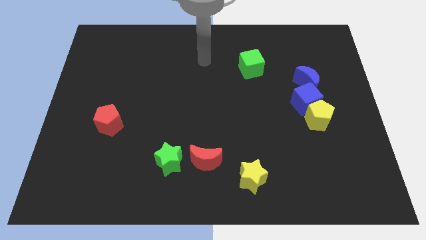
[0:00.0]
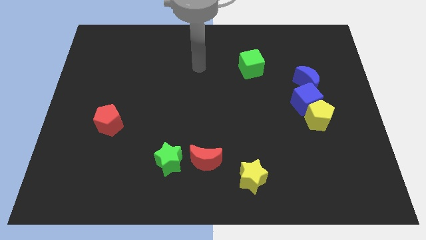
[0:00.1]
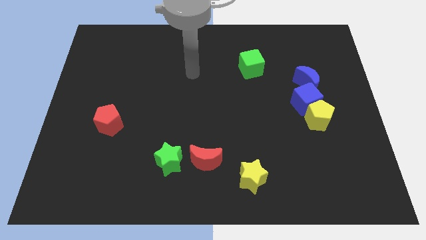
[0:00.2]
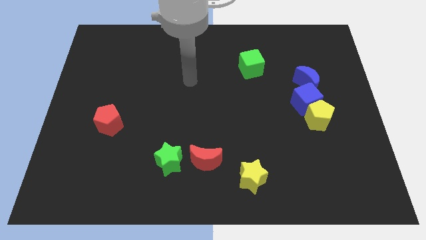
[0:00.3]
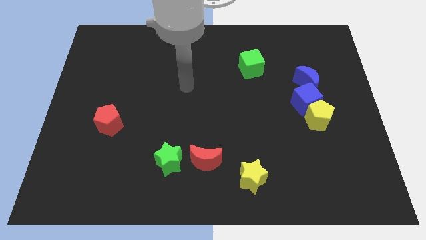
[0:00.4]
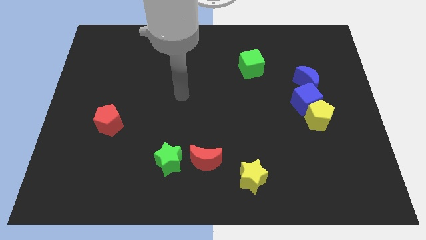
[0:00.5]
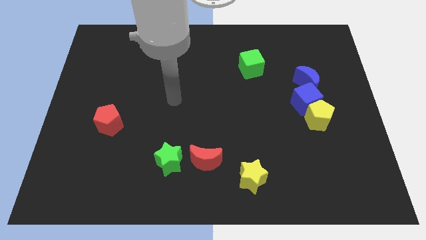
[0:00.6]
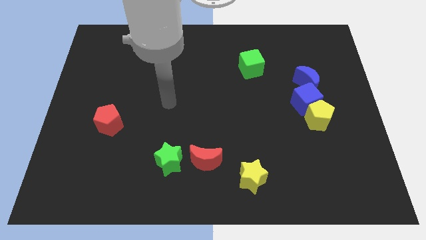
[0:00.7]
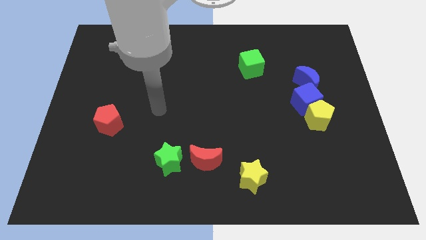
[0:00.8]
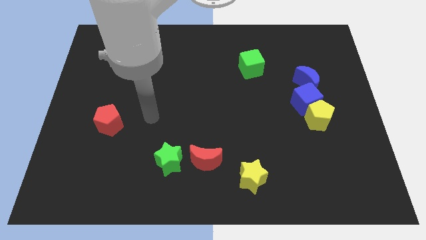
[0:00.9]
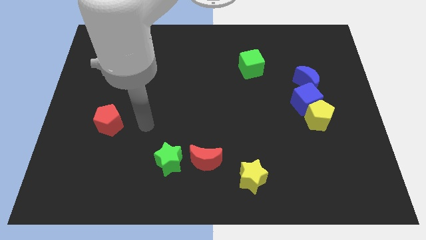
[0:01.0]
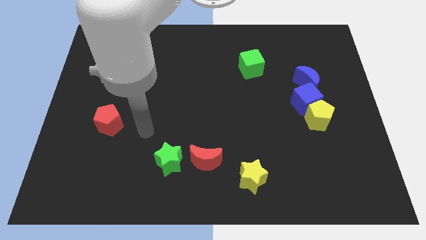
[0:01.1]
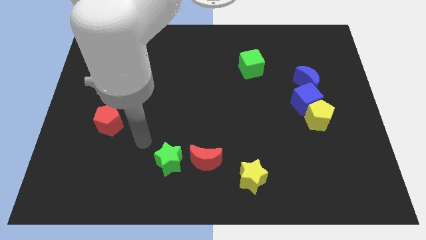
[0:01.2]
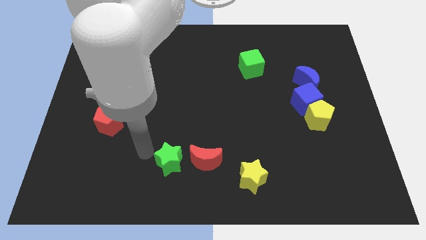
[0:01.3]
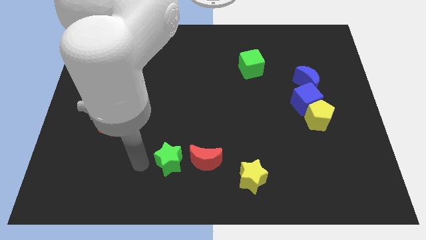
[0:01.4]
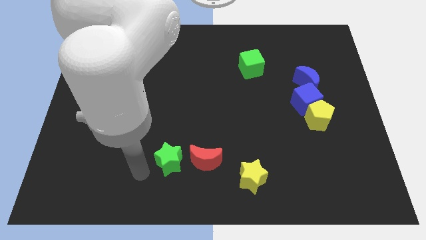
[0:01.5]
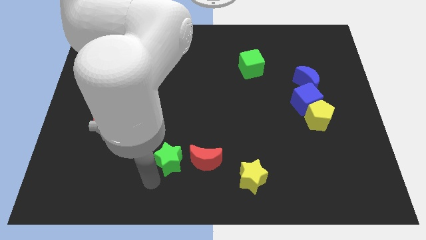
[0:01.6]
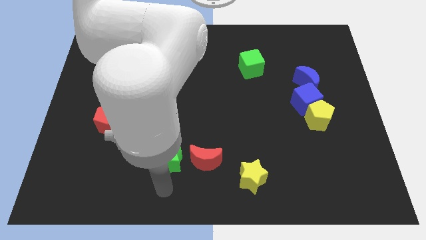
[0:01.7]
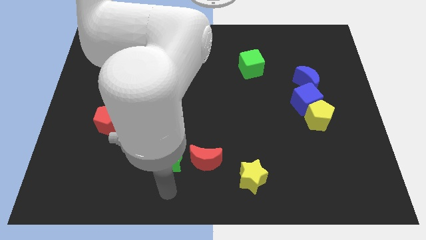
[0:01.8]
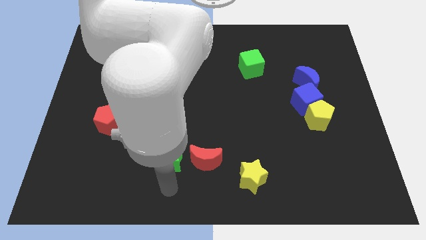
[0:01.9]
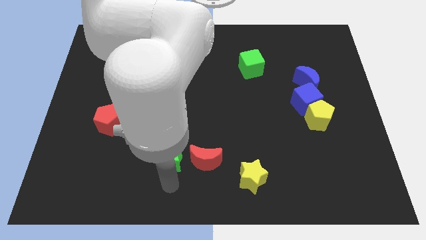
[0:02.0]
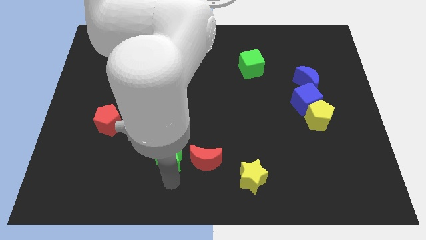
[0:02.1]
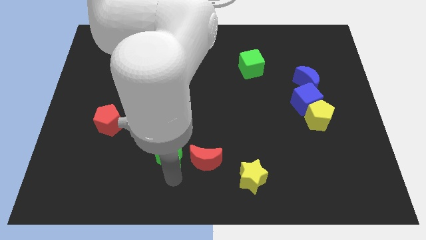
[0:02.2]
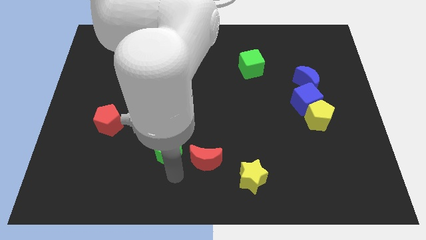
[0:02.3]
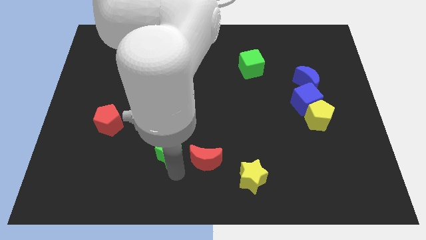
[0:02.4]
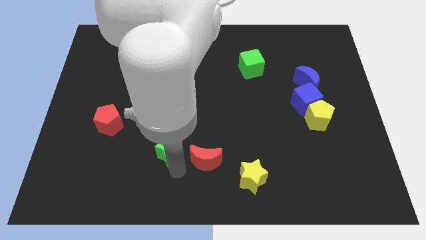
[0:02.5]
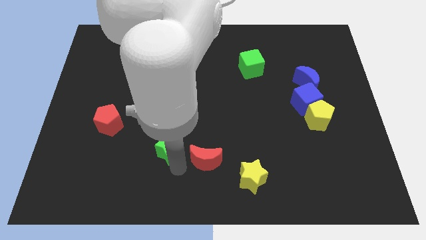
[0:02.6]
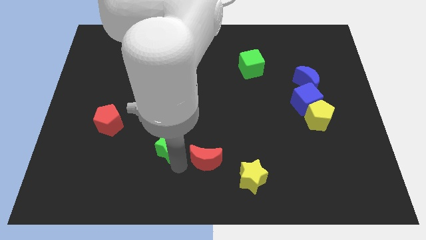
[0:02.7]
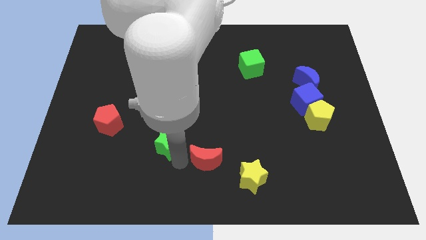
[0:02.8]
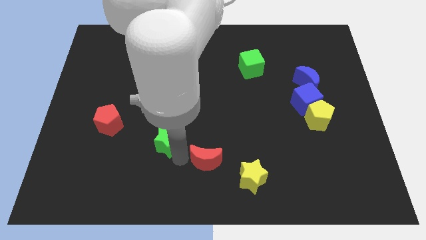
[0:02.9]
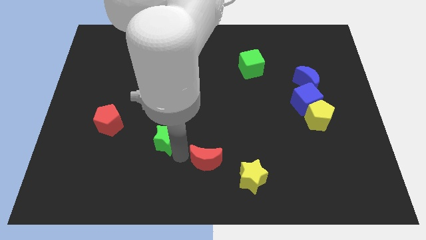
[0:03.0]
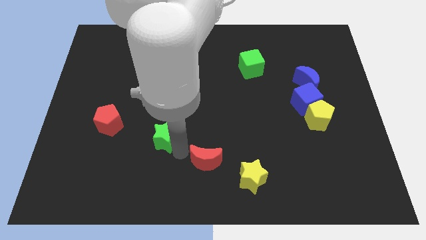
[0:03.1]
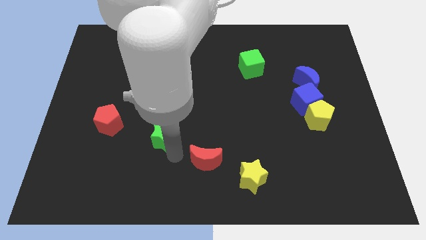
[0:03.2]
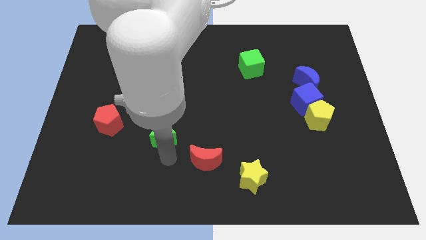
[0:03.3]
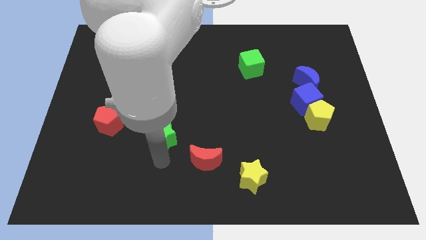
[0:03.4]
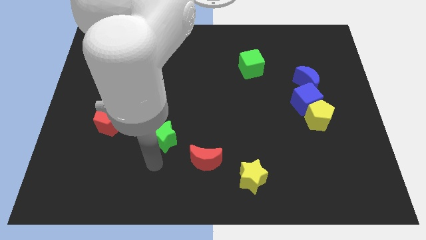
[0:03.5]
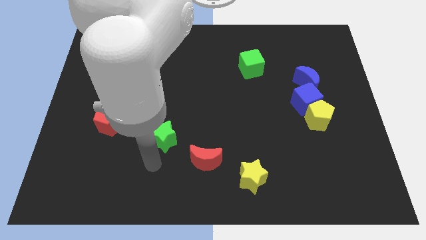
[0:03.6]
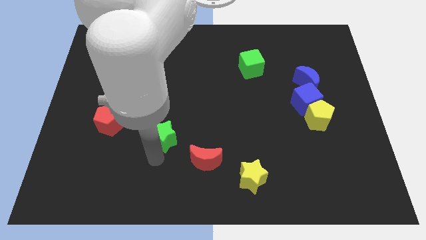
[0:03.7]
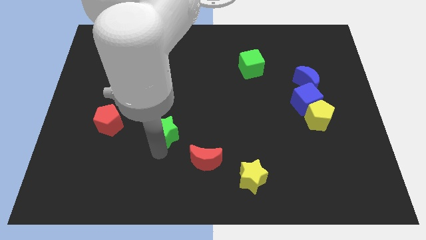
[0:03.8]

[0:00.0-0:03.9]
push the green star somewhat upwards

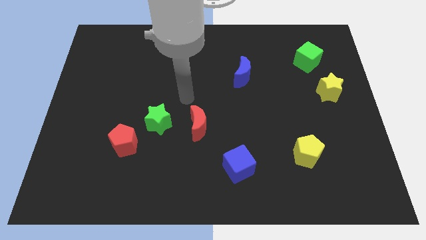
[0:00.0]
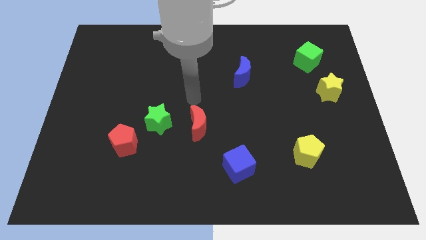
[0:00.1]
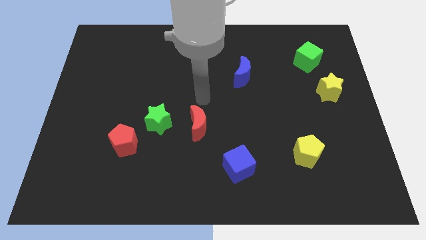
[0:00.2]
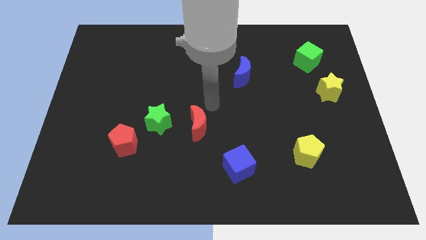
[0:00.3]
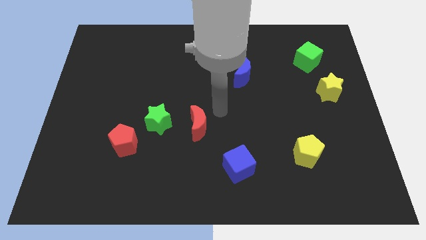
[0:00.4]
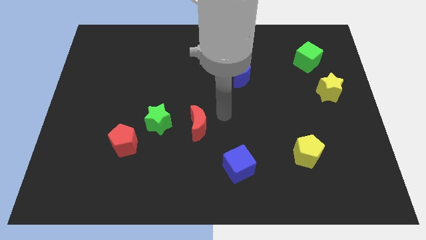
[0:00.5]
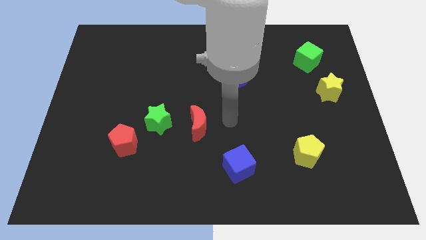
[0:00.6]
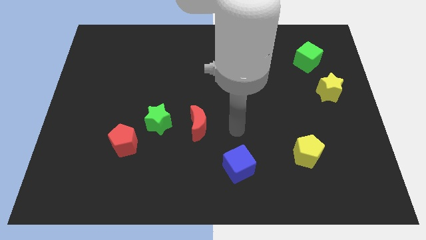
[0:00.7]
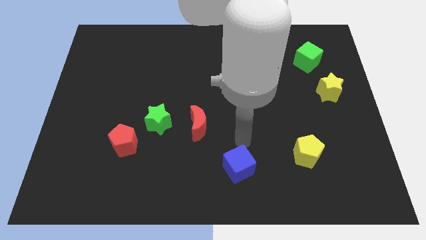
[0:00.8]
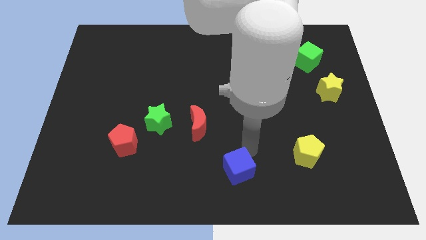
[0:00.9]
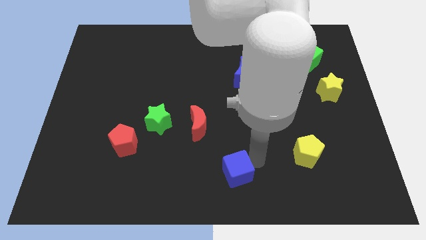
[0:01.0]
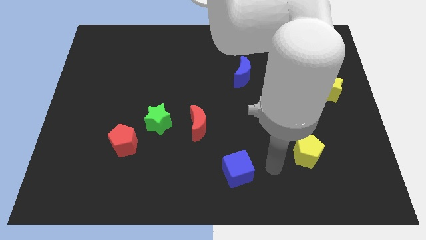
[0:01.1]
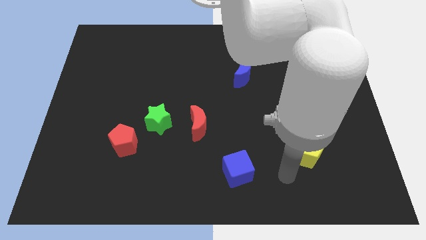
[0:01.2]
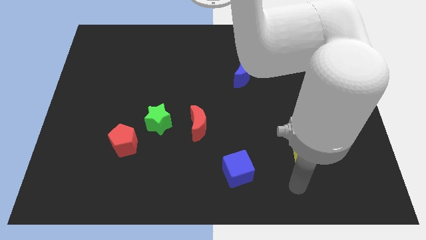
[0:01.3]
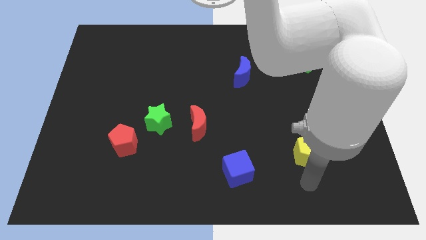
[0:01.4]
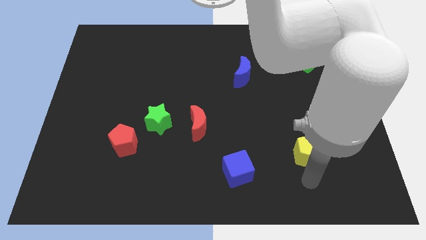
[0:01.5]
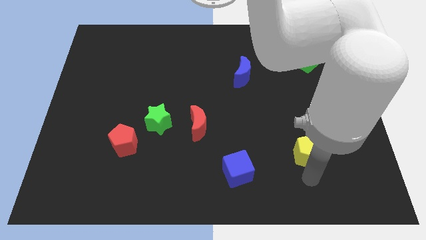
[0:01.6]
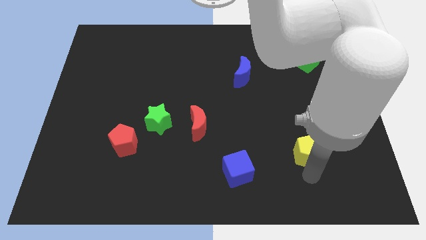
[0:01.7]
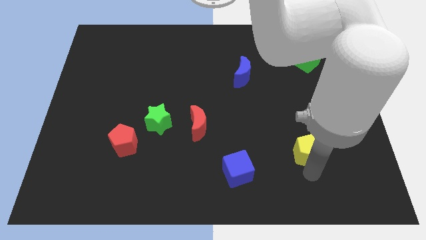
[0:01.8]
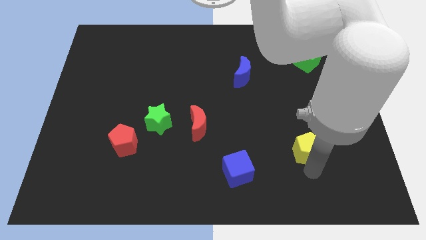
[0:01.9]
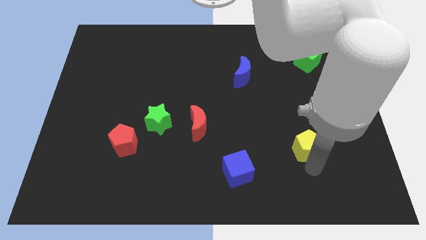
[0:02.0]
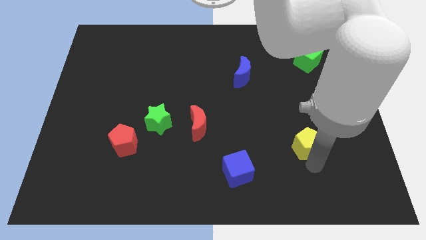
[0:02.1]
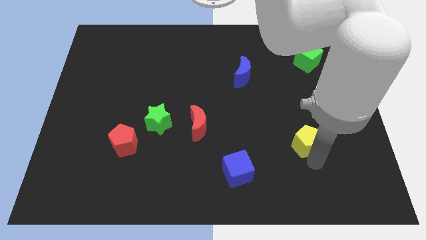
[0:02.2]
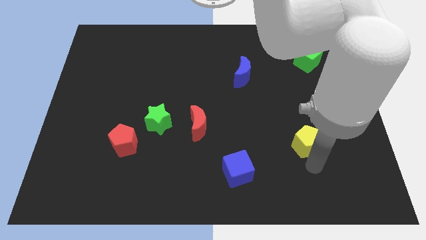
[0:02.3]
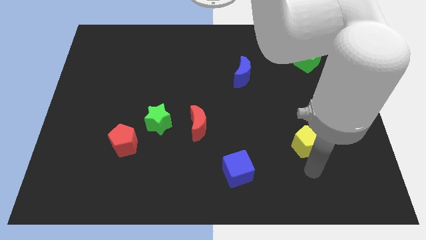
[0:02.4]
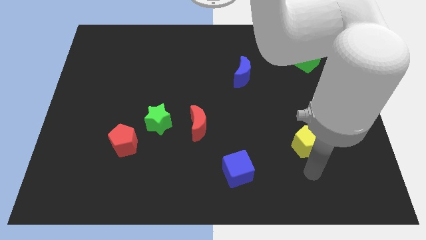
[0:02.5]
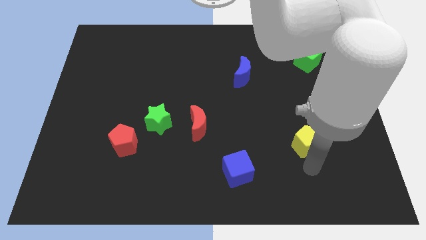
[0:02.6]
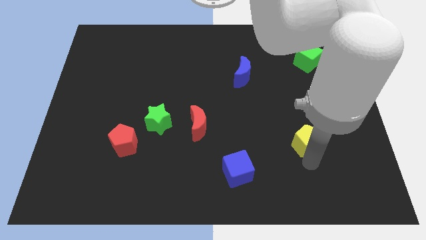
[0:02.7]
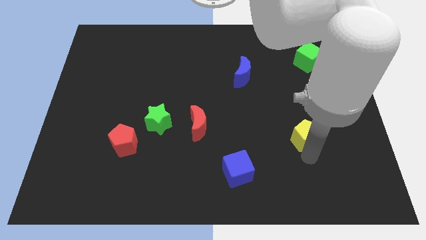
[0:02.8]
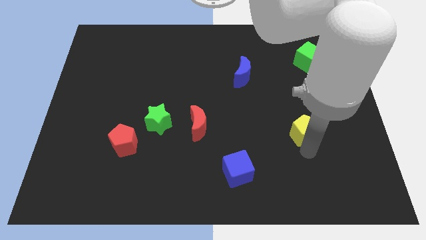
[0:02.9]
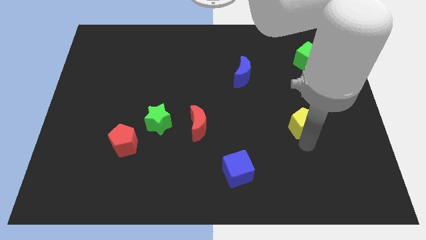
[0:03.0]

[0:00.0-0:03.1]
move the yellow pentagon upwards a bit

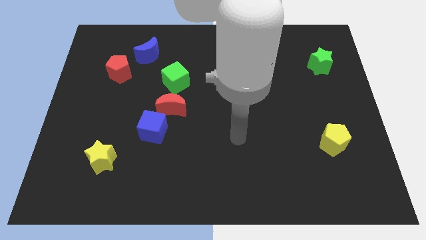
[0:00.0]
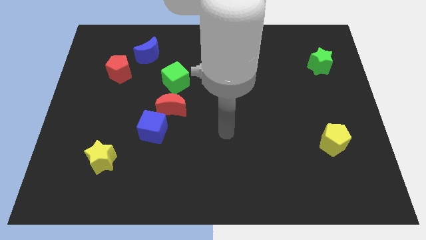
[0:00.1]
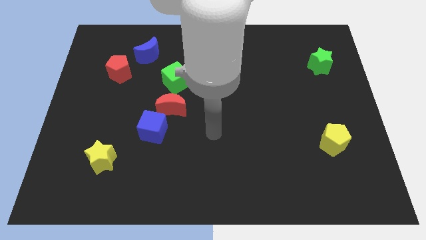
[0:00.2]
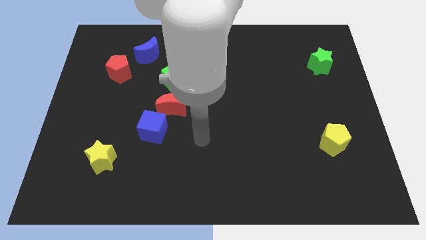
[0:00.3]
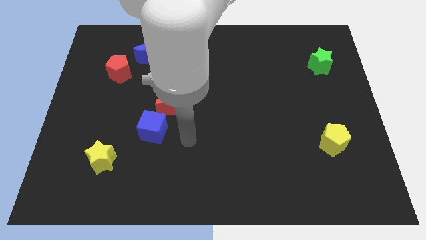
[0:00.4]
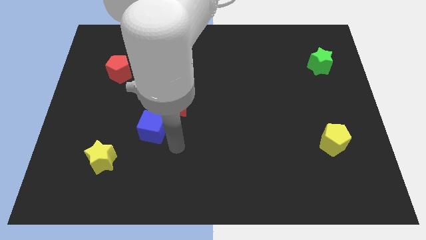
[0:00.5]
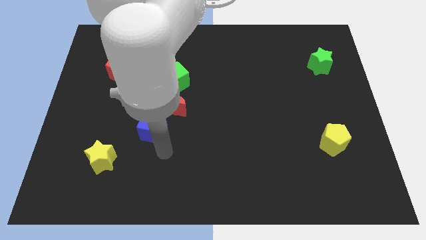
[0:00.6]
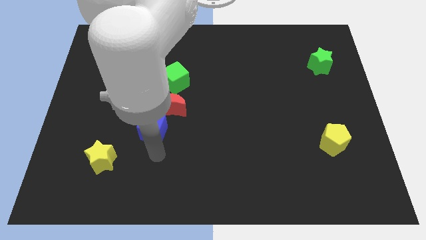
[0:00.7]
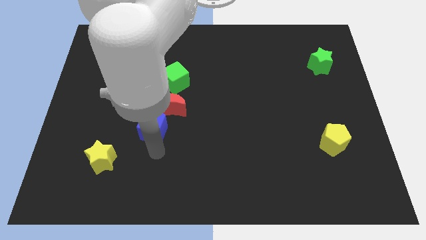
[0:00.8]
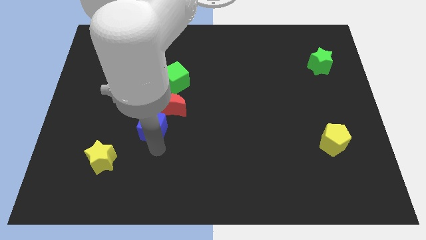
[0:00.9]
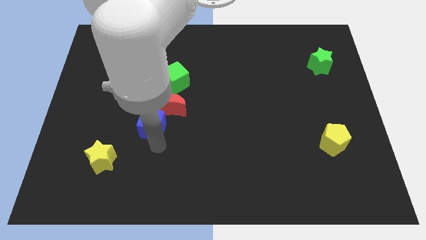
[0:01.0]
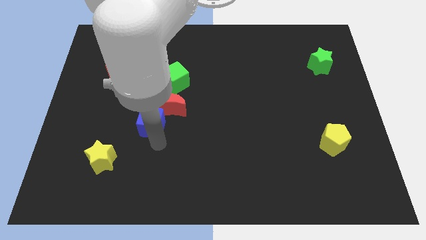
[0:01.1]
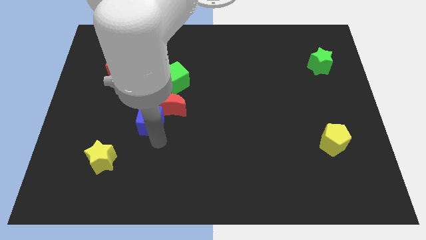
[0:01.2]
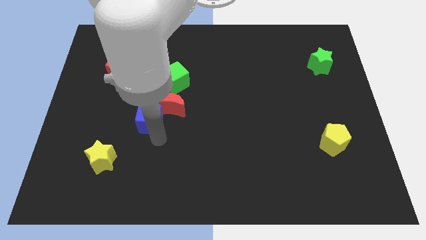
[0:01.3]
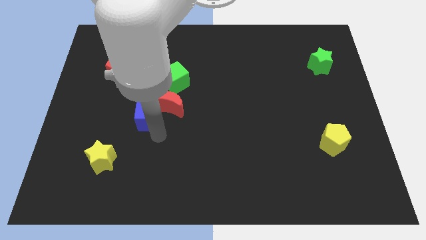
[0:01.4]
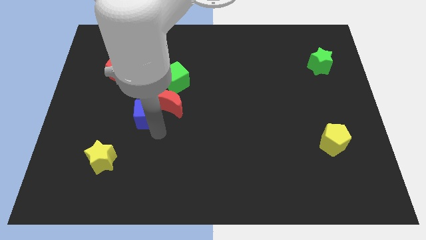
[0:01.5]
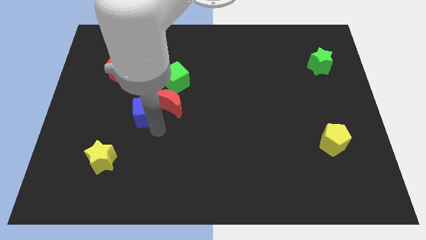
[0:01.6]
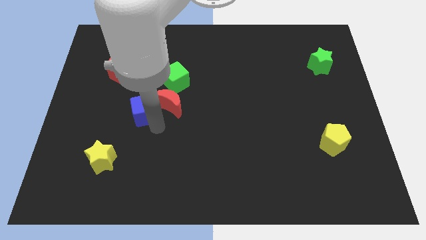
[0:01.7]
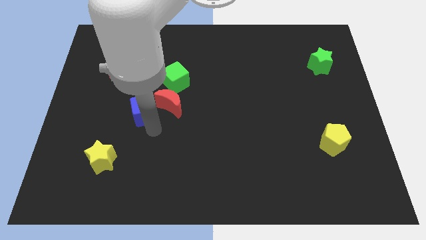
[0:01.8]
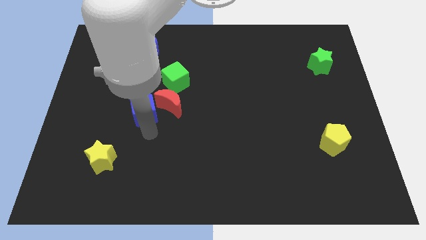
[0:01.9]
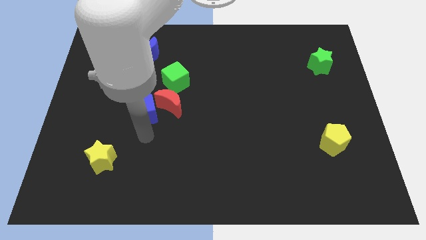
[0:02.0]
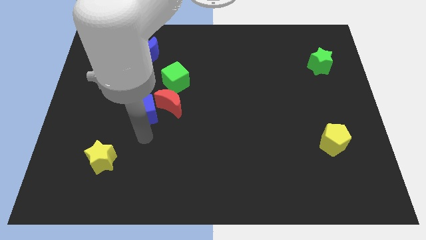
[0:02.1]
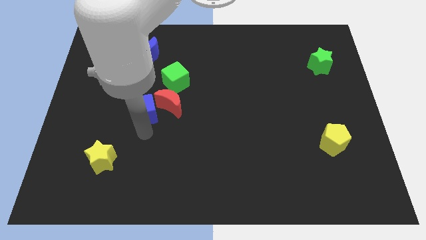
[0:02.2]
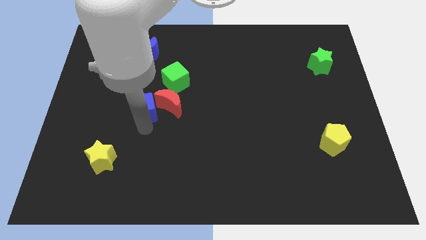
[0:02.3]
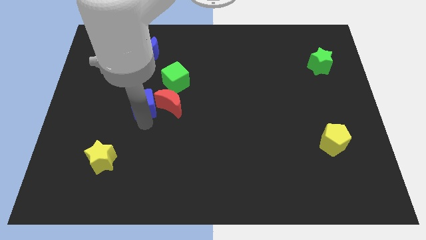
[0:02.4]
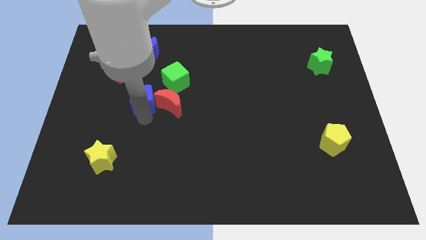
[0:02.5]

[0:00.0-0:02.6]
slide the blue cube upwards a little bit
